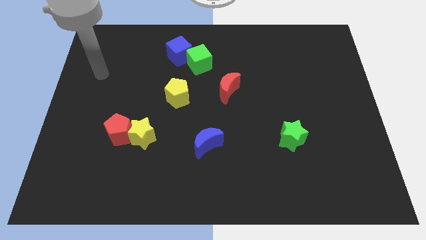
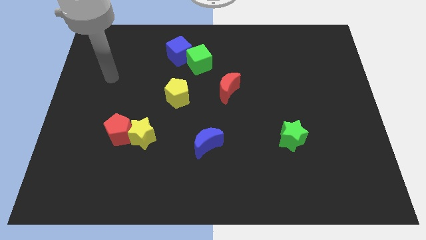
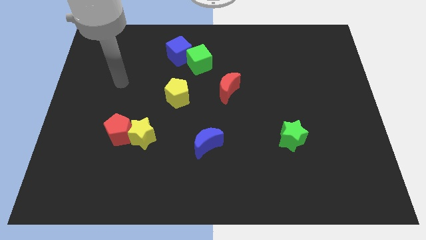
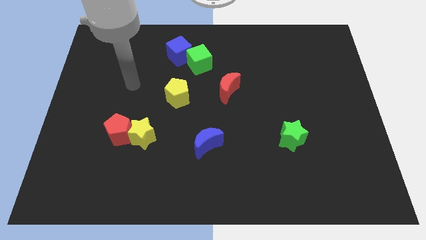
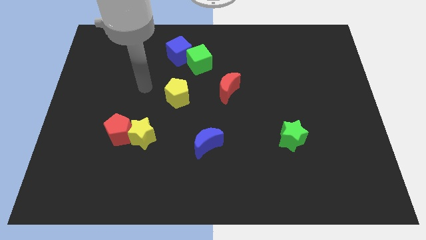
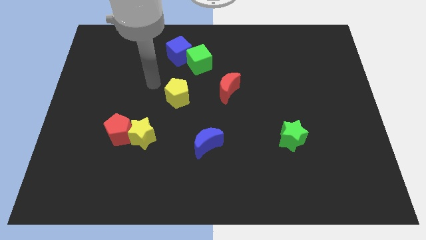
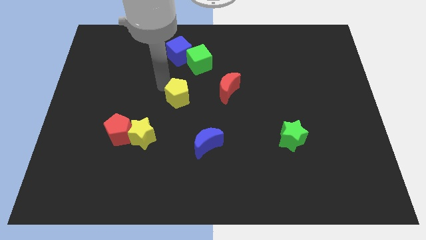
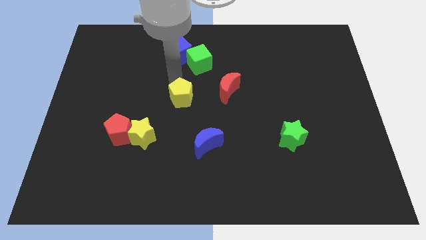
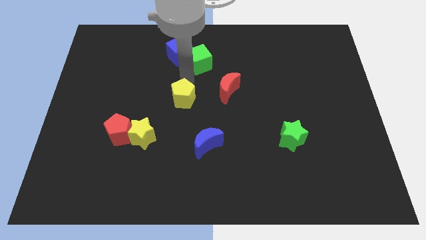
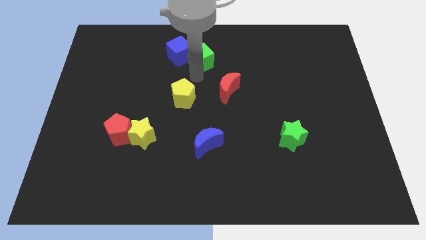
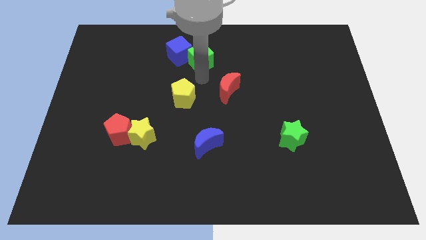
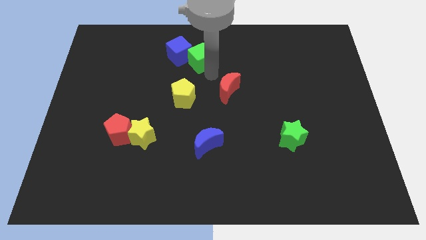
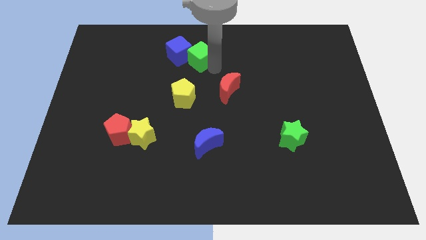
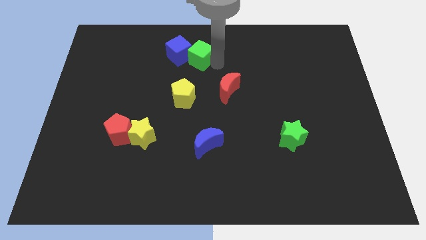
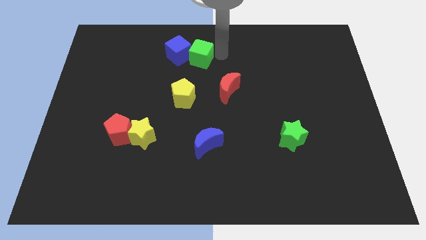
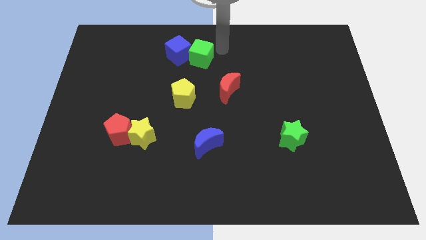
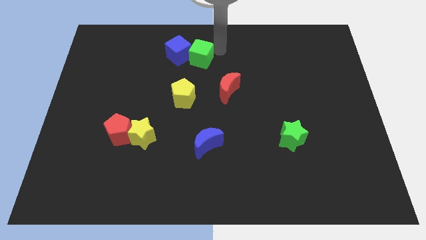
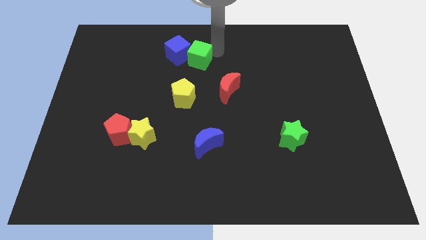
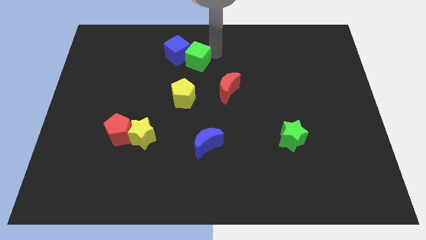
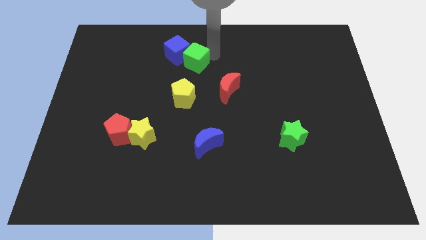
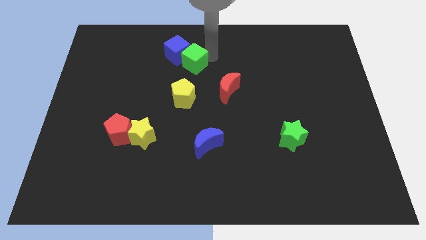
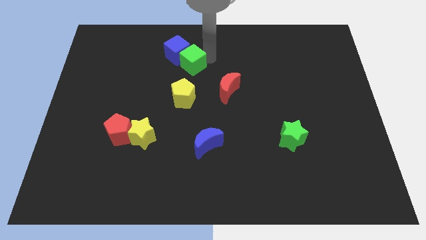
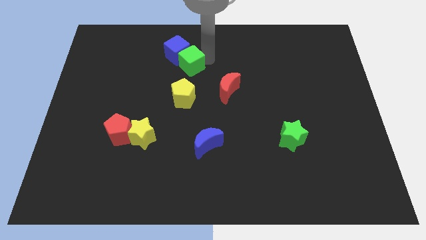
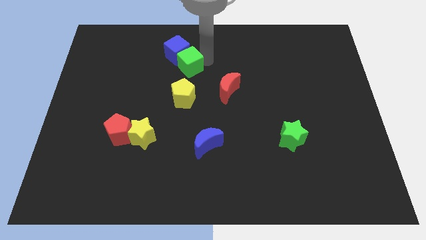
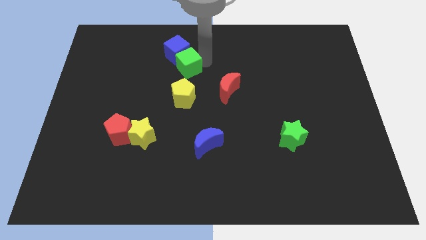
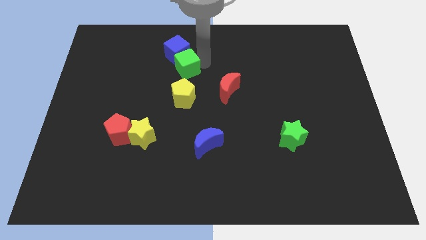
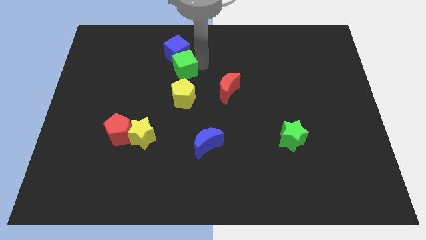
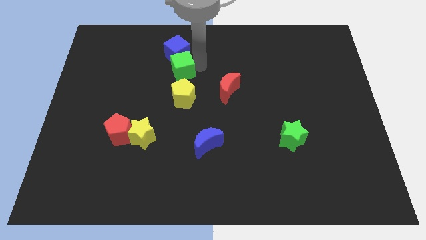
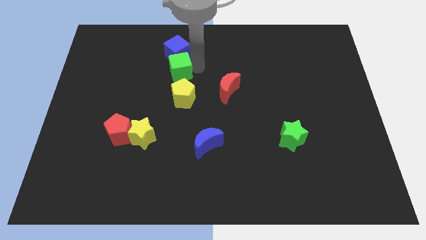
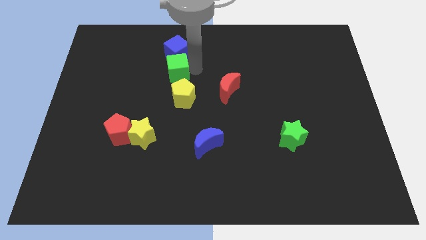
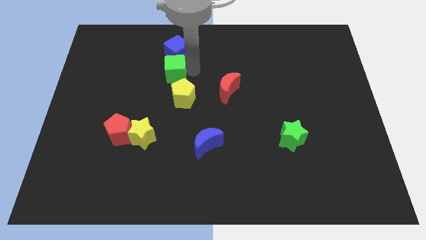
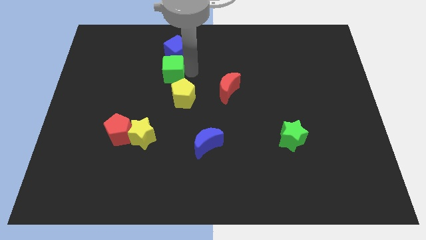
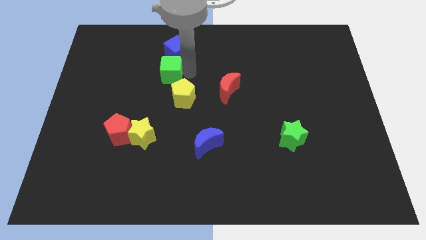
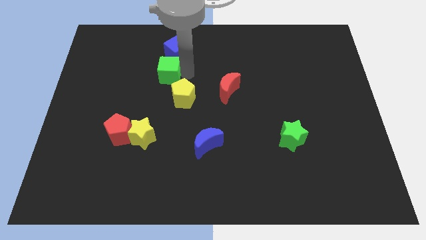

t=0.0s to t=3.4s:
move the green cube slightly left

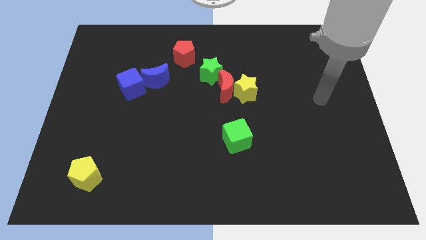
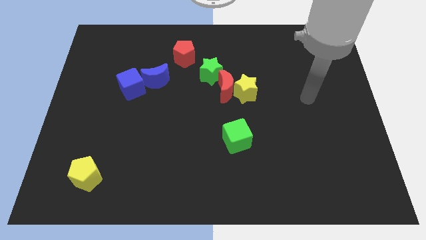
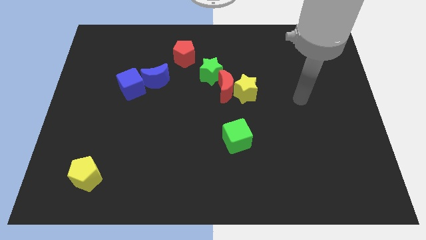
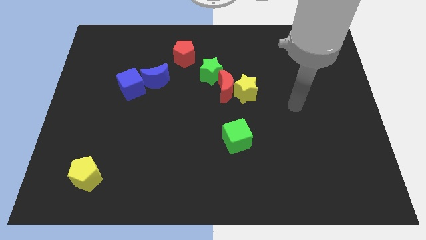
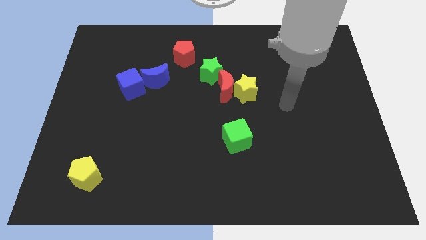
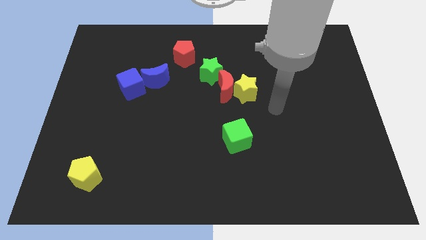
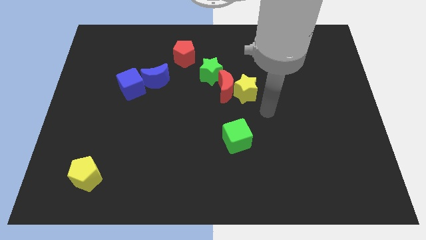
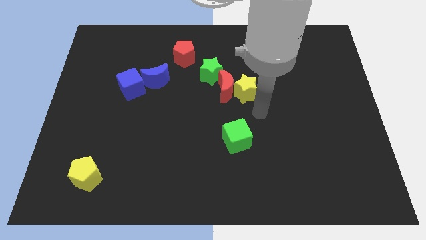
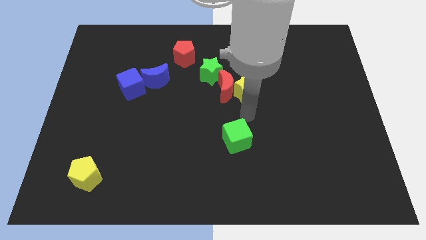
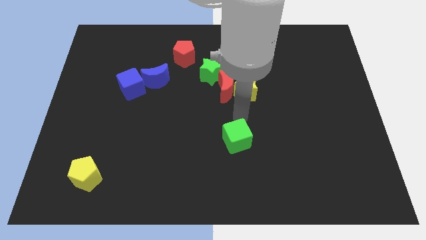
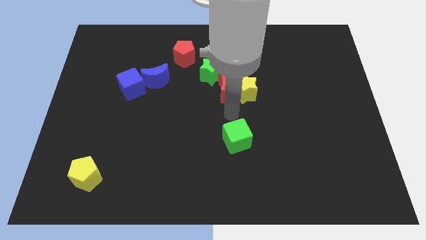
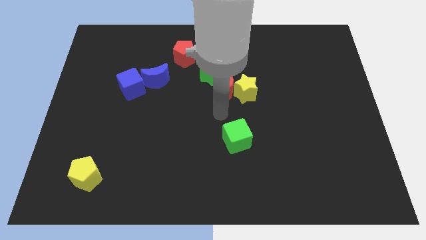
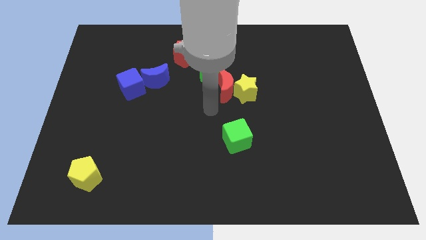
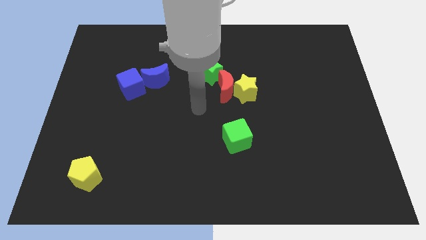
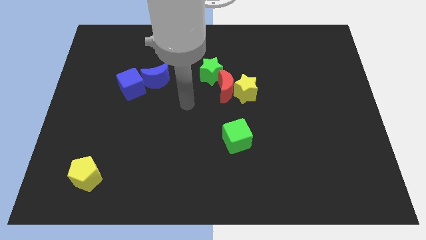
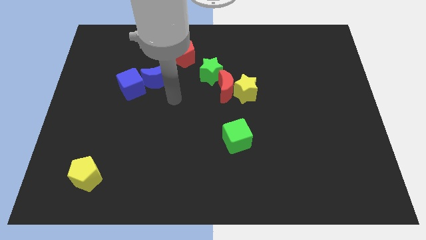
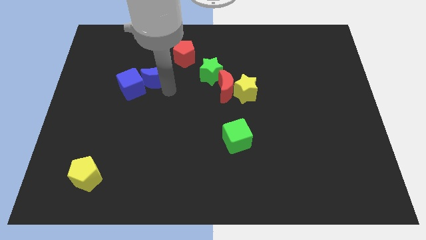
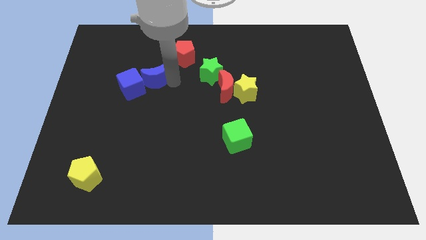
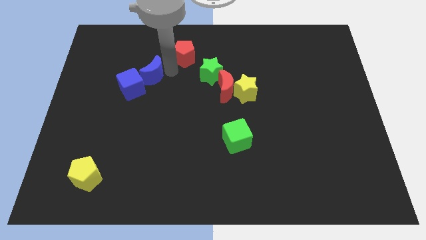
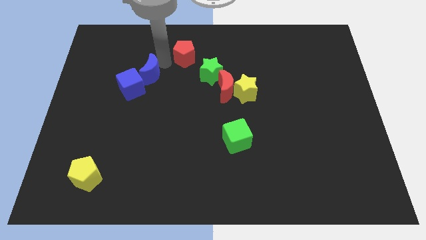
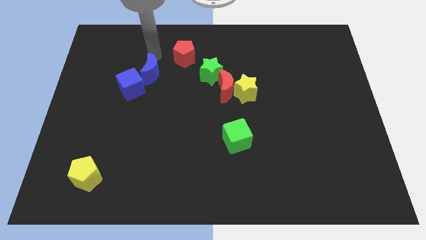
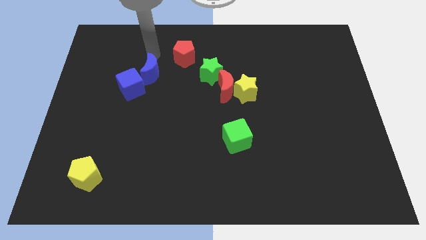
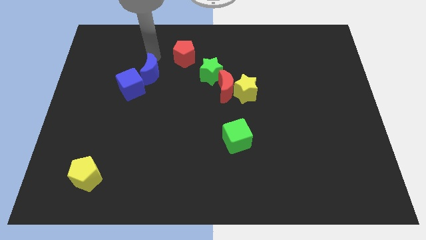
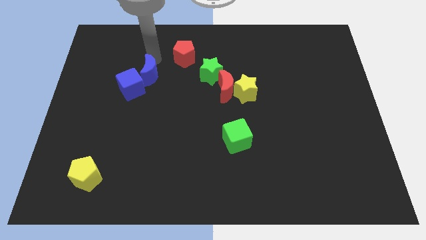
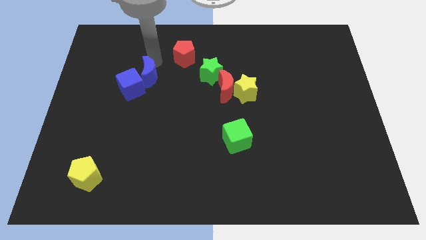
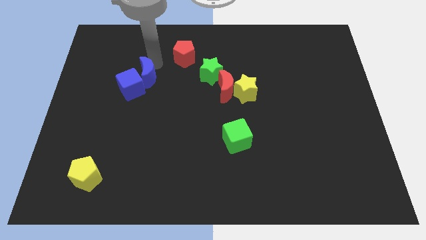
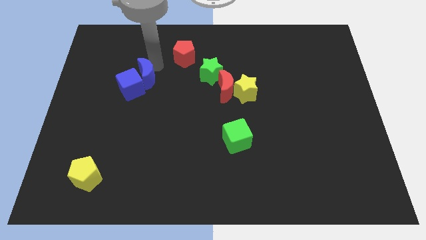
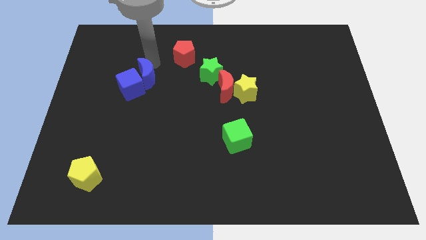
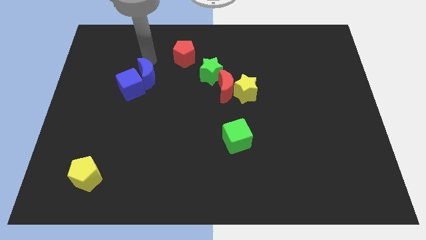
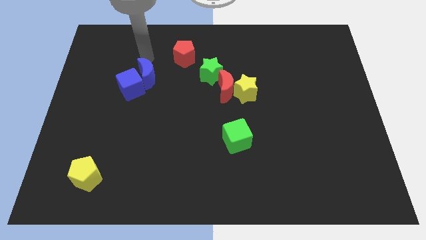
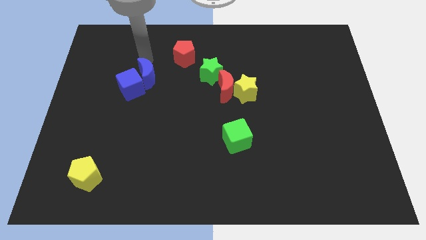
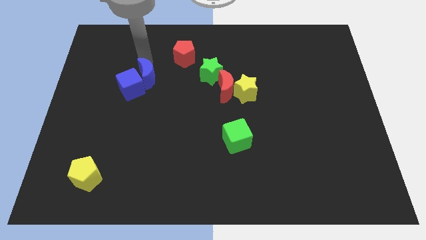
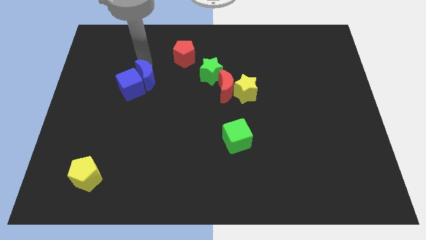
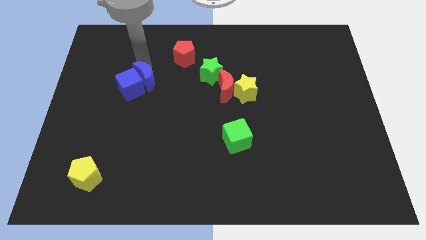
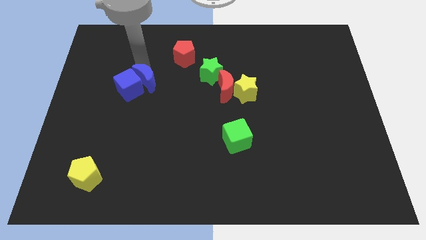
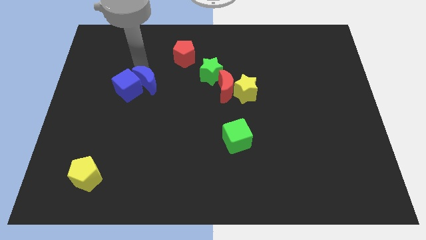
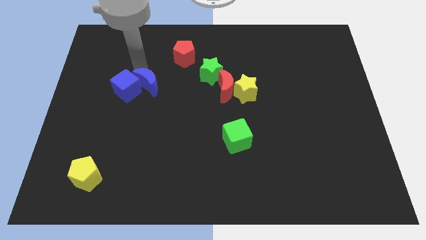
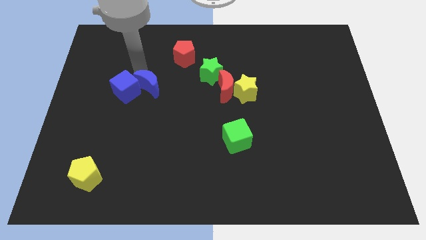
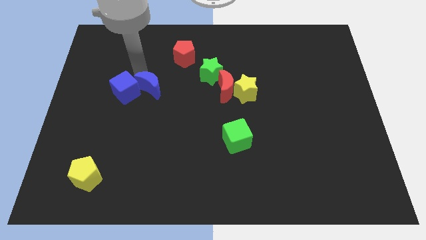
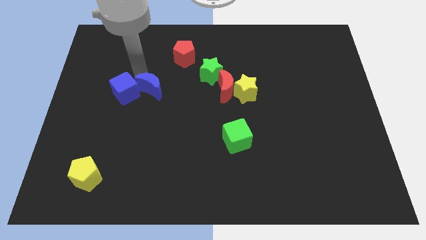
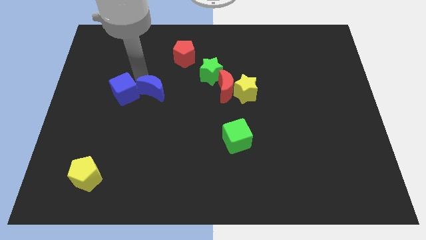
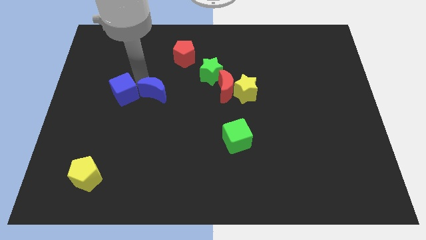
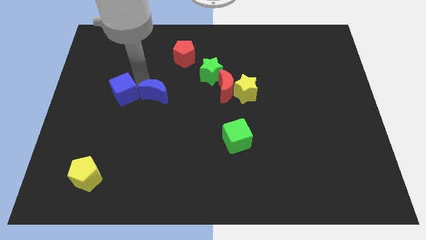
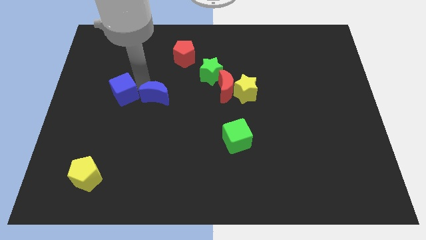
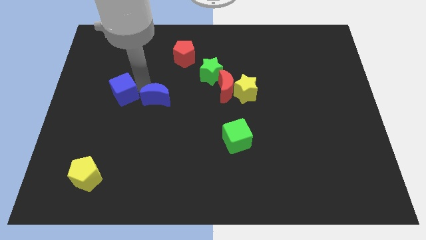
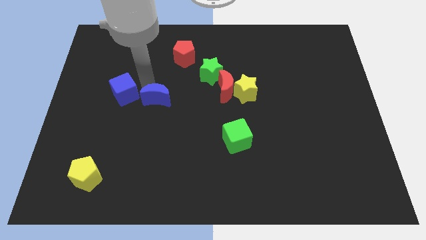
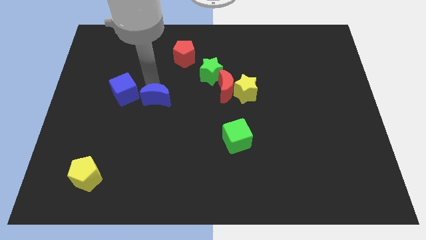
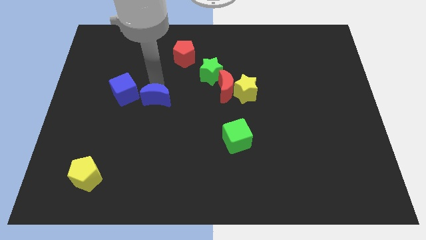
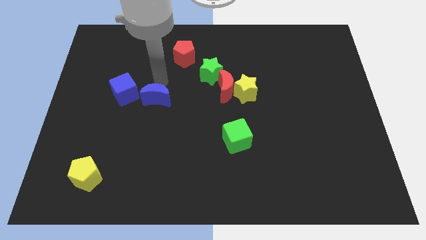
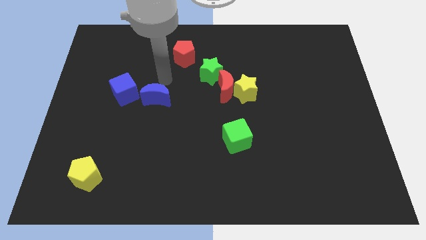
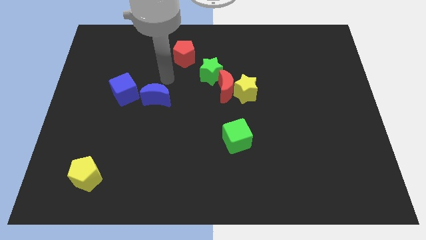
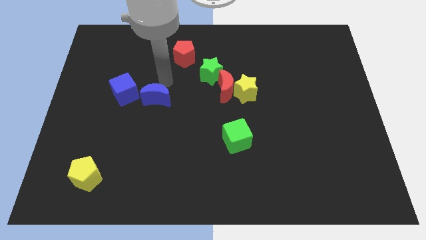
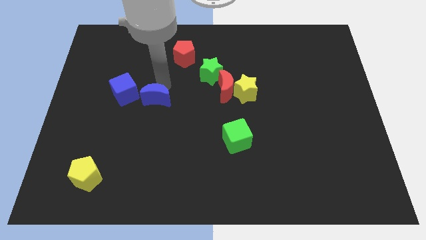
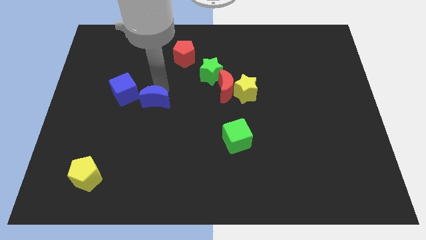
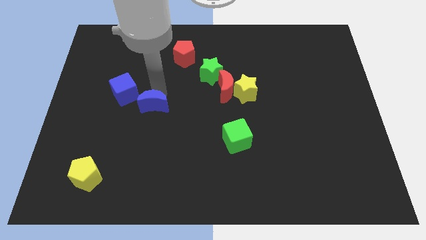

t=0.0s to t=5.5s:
slightly move the blue moon downwards
